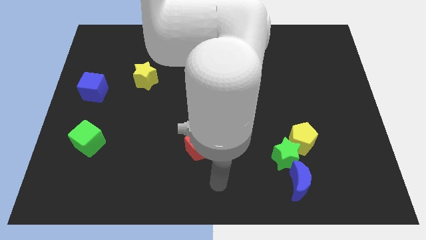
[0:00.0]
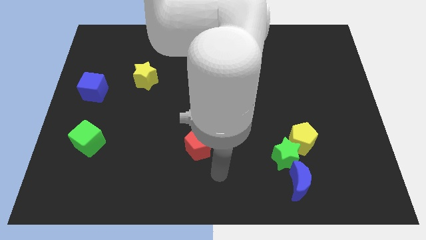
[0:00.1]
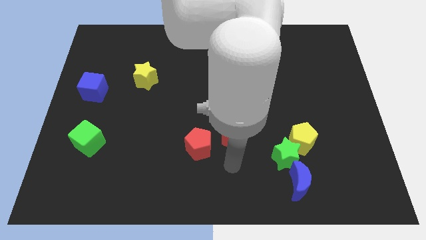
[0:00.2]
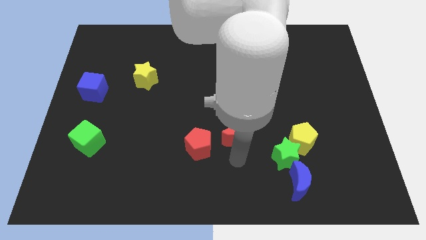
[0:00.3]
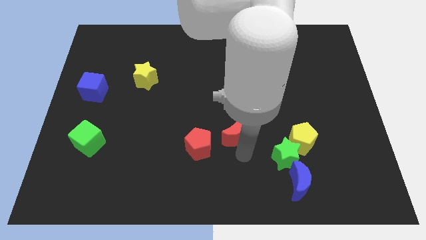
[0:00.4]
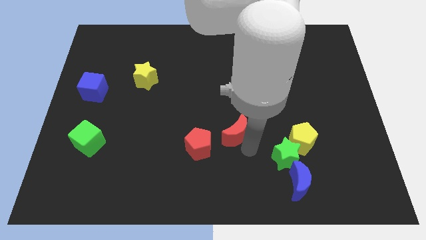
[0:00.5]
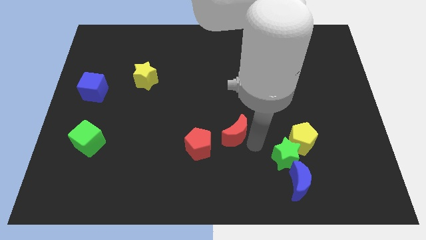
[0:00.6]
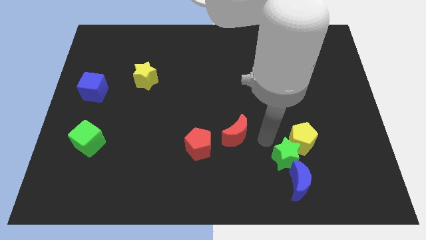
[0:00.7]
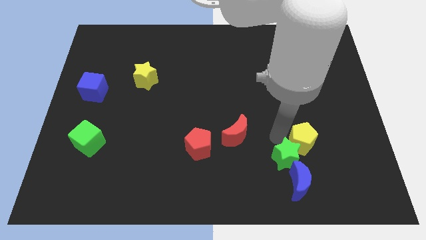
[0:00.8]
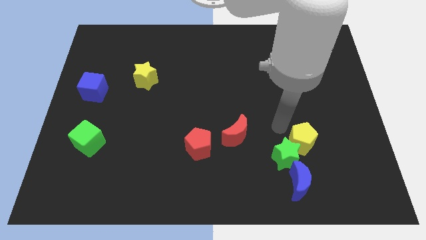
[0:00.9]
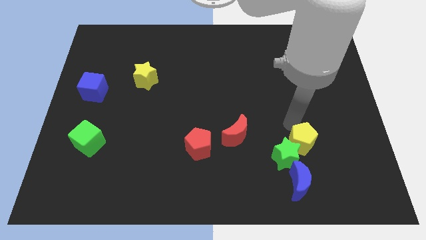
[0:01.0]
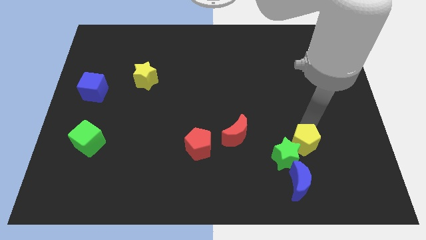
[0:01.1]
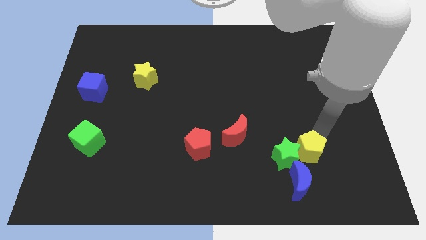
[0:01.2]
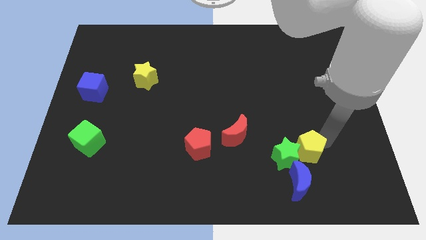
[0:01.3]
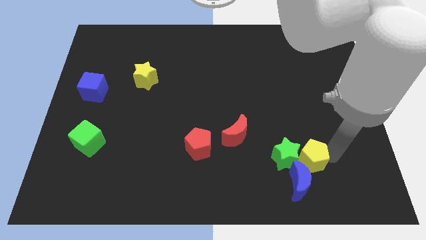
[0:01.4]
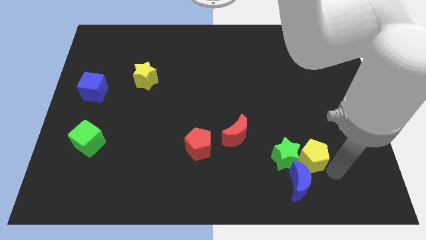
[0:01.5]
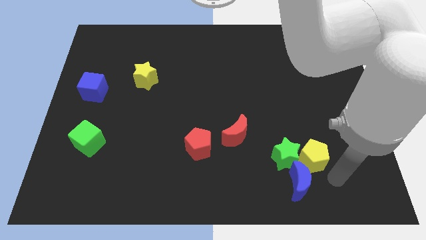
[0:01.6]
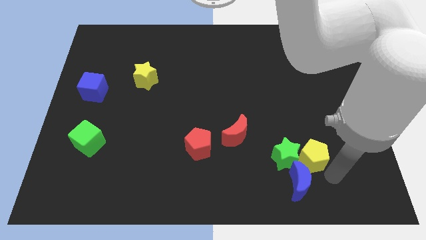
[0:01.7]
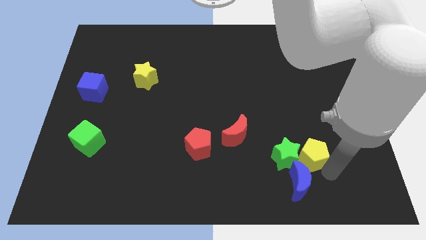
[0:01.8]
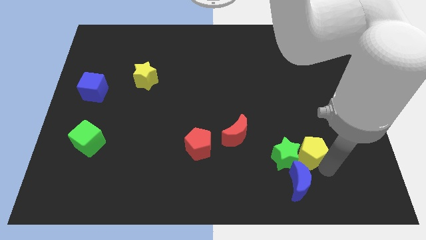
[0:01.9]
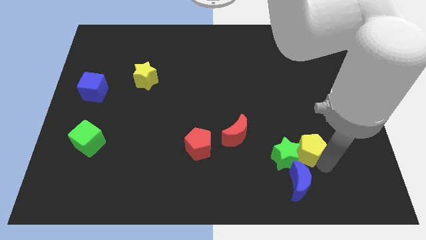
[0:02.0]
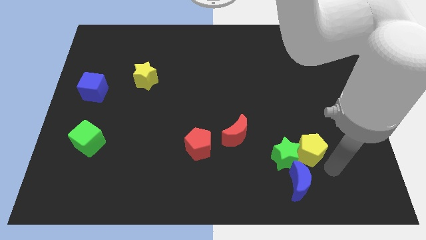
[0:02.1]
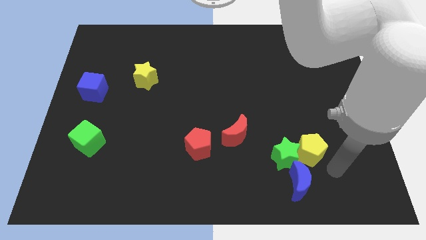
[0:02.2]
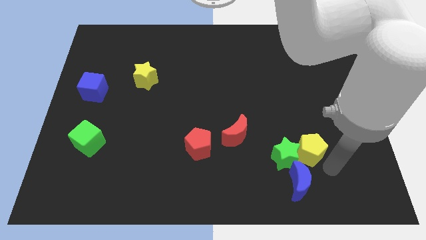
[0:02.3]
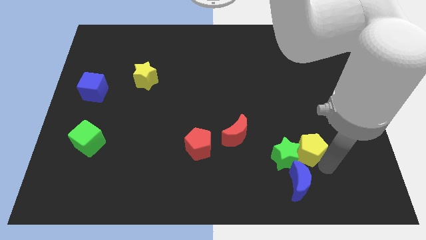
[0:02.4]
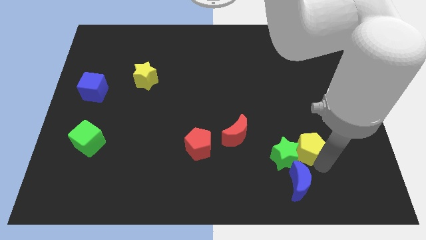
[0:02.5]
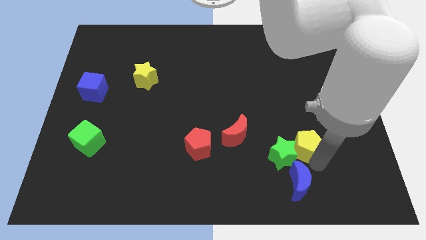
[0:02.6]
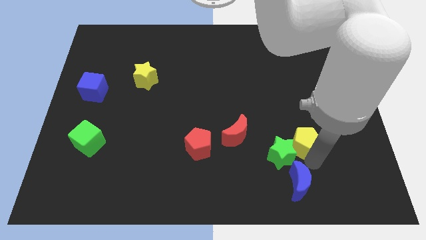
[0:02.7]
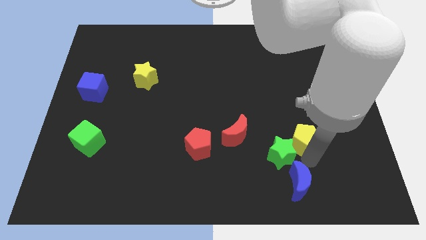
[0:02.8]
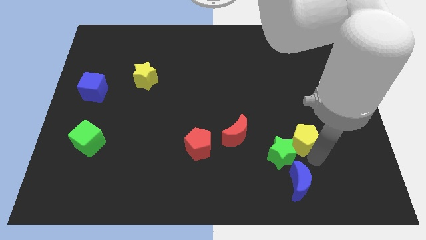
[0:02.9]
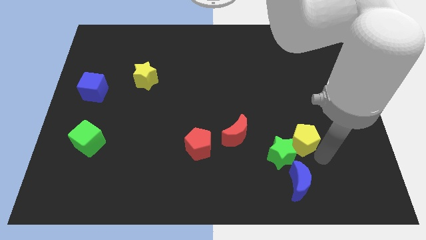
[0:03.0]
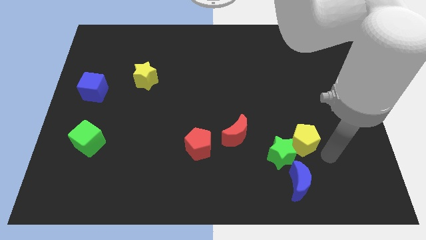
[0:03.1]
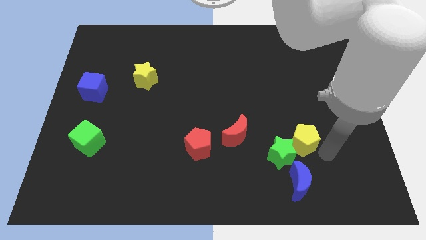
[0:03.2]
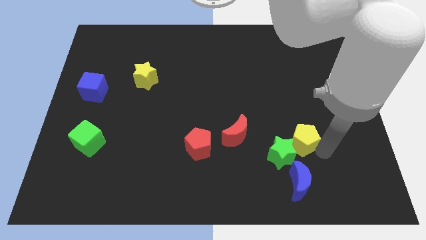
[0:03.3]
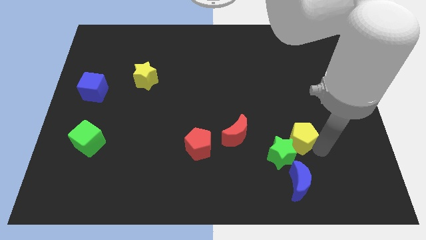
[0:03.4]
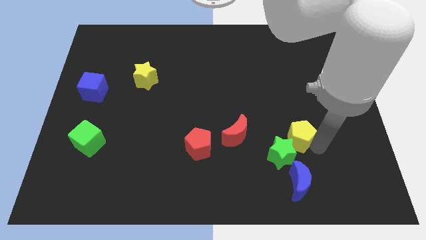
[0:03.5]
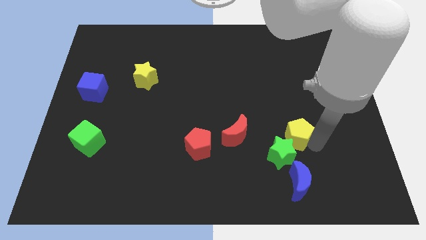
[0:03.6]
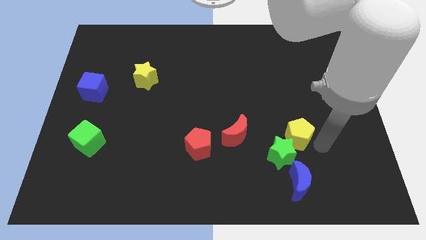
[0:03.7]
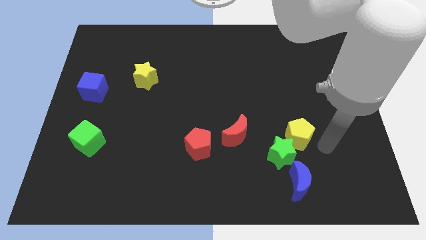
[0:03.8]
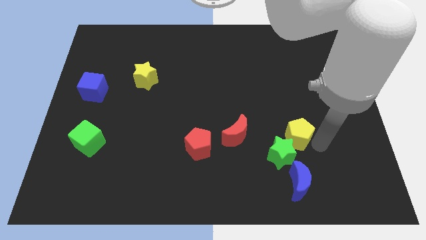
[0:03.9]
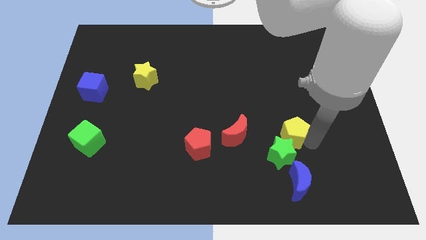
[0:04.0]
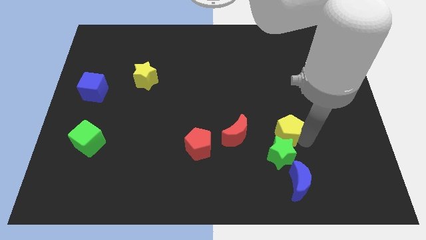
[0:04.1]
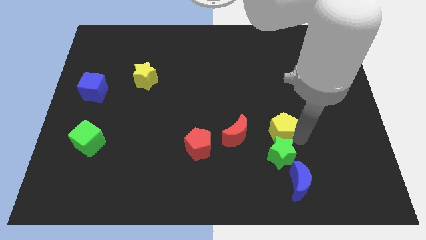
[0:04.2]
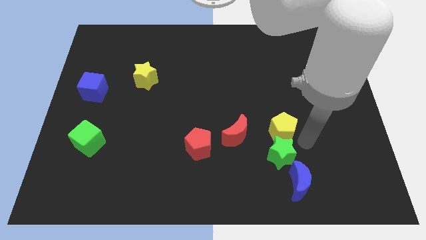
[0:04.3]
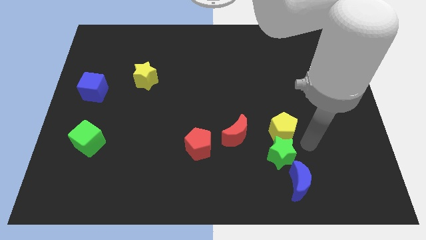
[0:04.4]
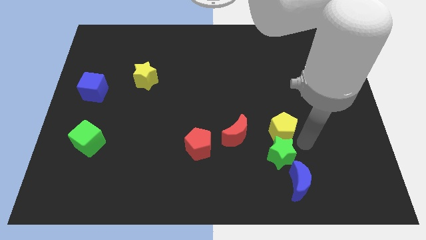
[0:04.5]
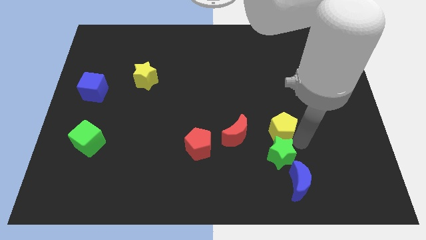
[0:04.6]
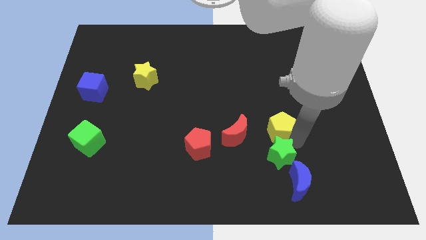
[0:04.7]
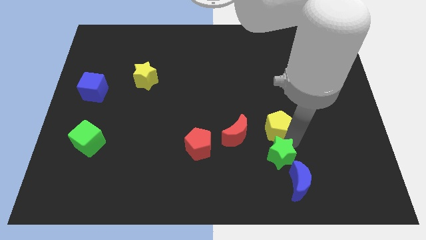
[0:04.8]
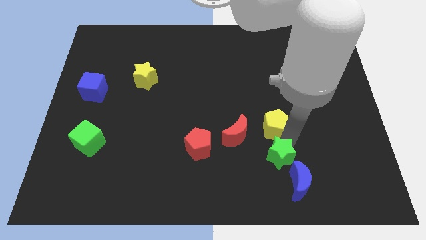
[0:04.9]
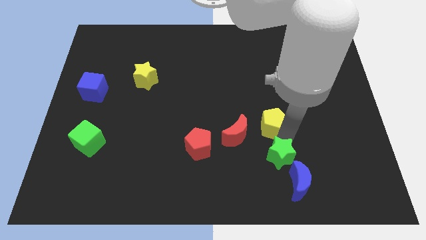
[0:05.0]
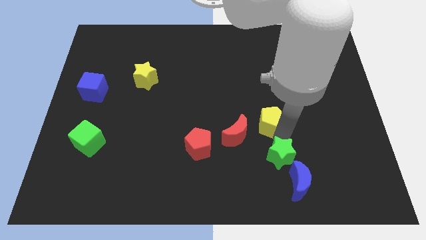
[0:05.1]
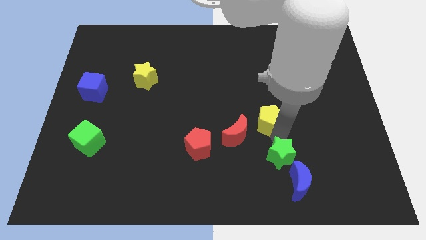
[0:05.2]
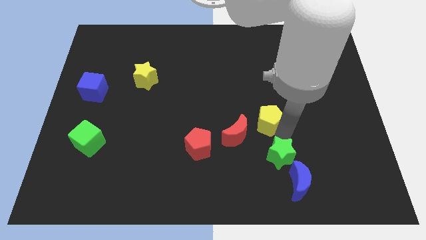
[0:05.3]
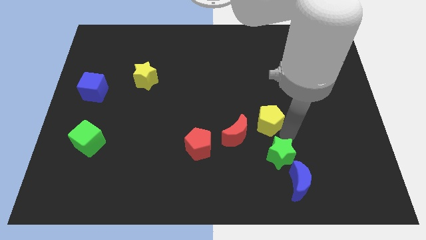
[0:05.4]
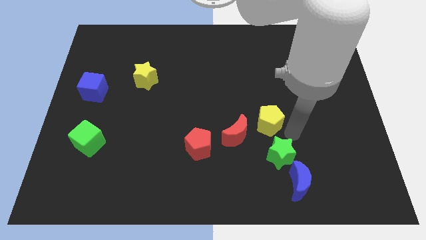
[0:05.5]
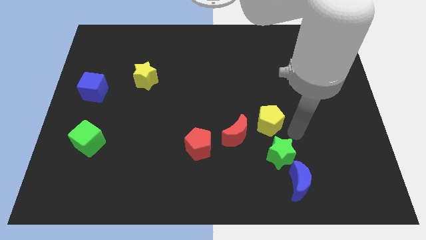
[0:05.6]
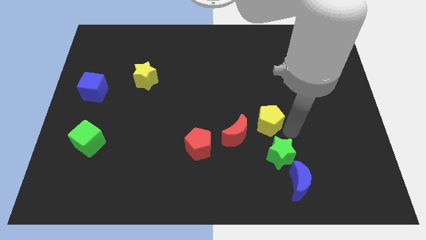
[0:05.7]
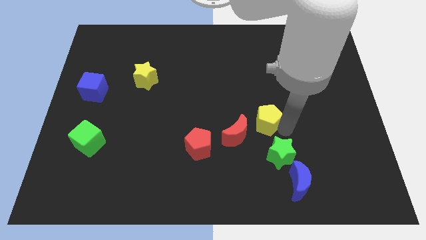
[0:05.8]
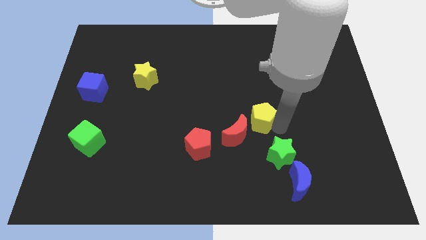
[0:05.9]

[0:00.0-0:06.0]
push the yellow pentagon to the center
